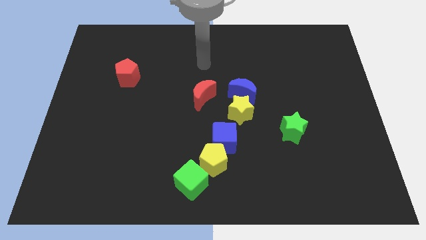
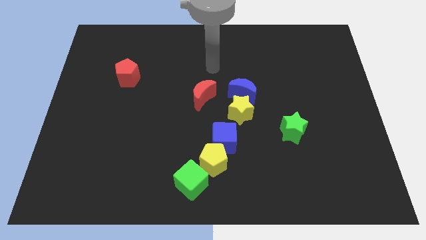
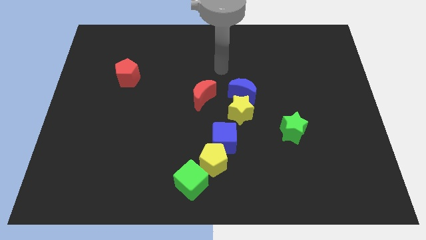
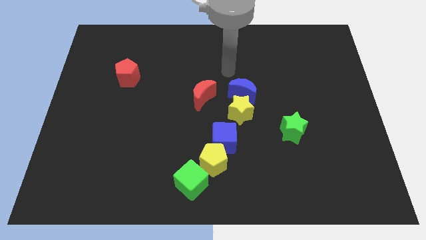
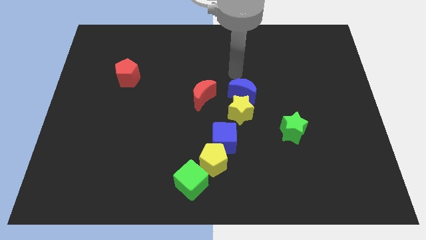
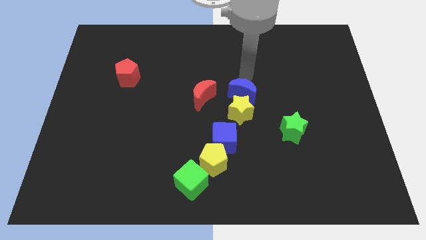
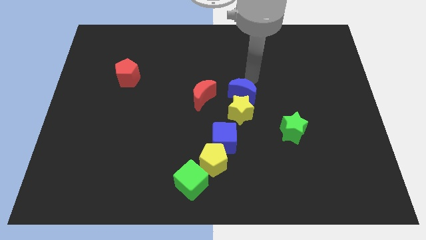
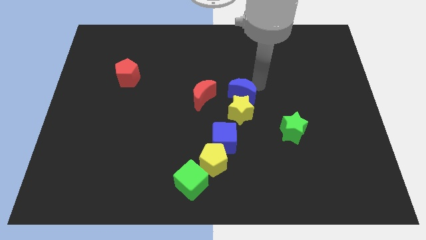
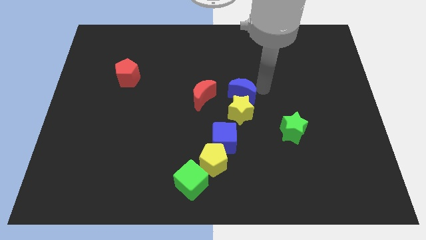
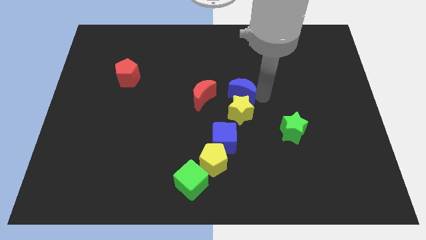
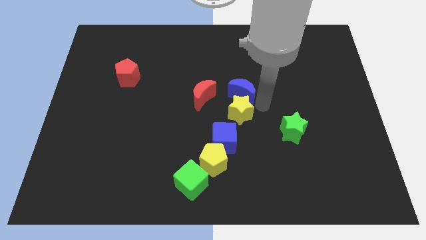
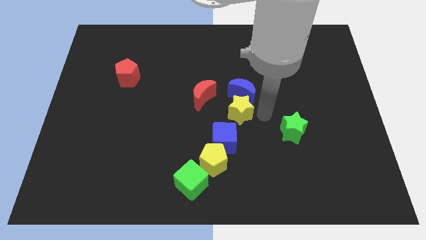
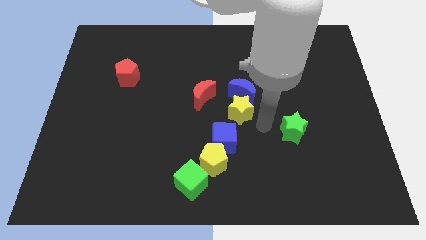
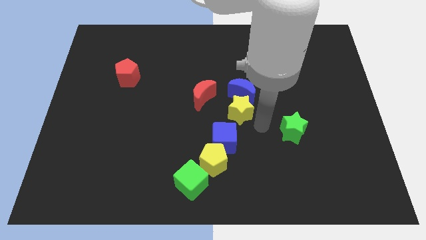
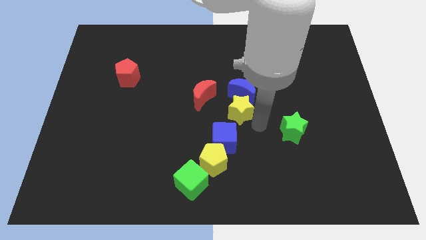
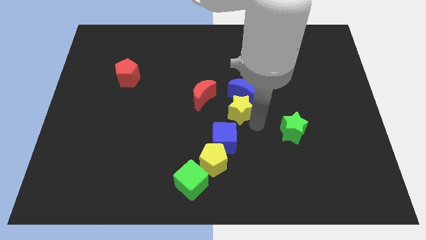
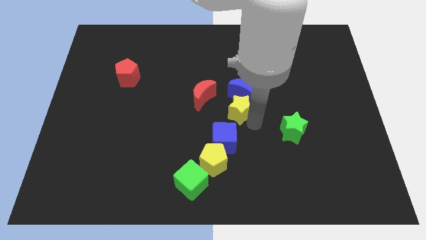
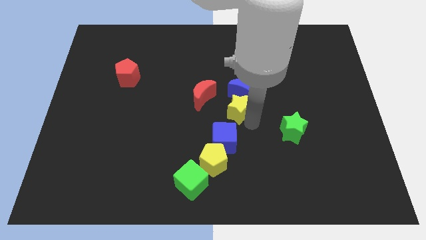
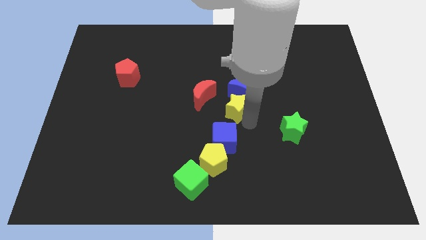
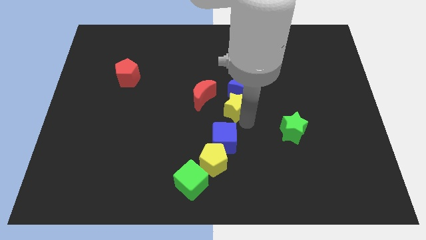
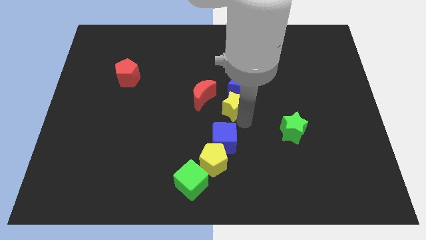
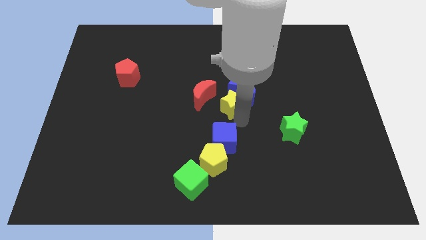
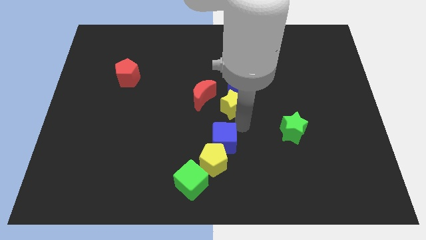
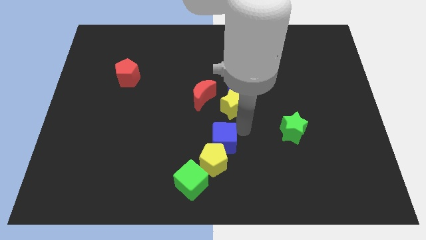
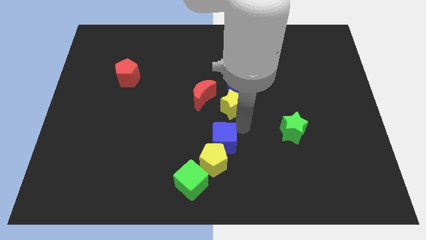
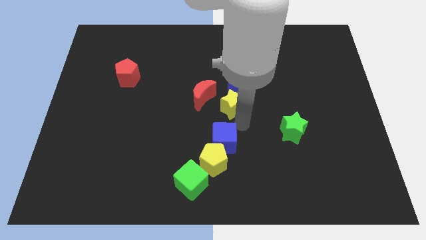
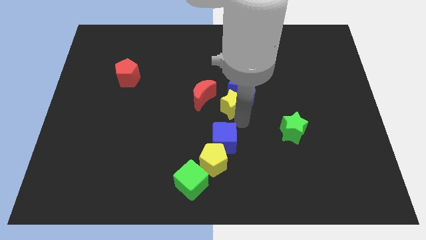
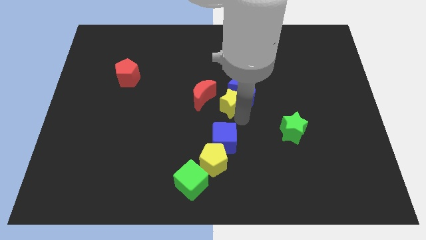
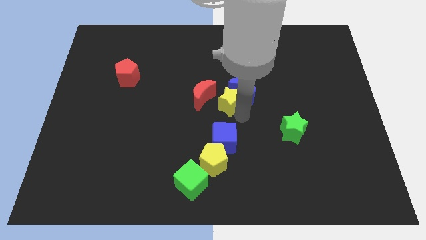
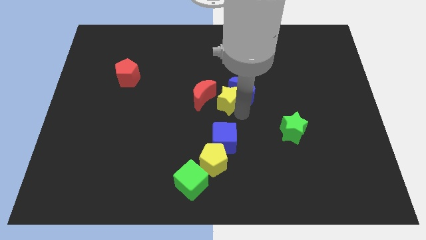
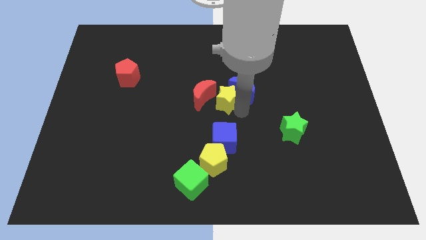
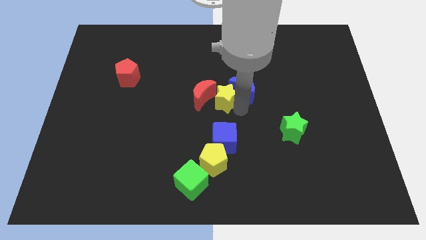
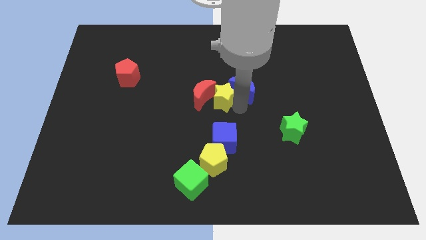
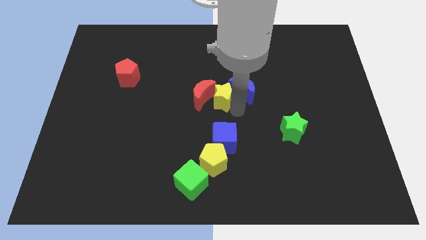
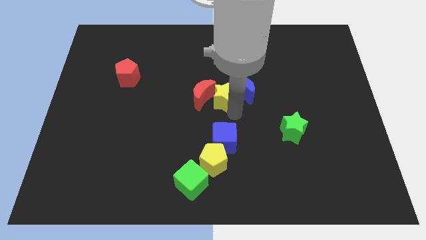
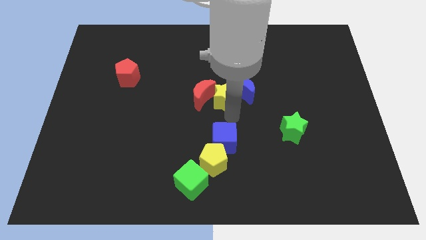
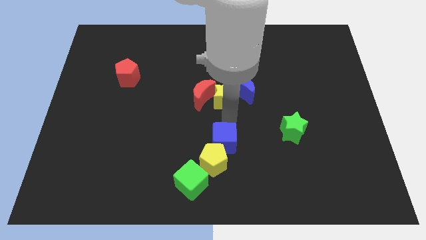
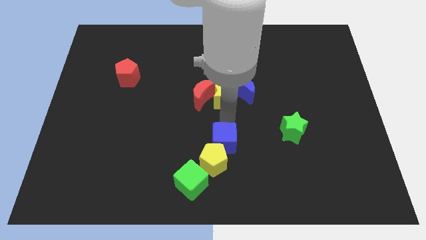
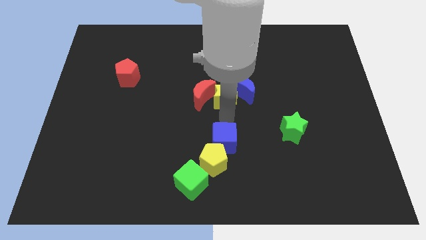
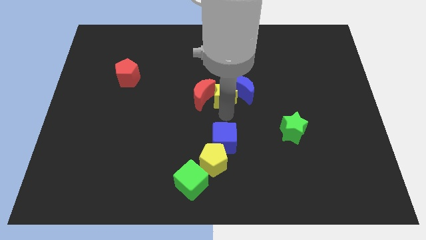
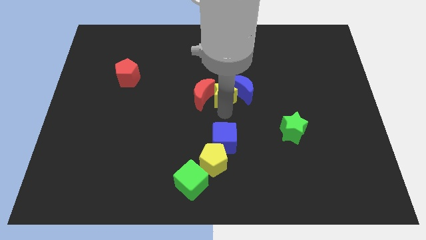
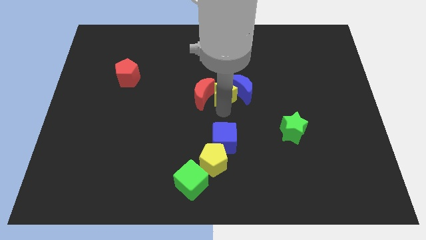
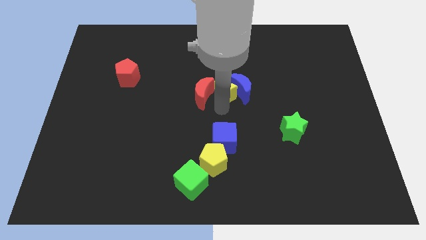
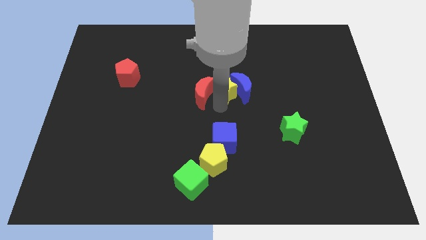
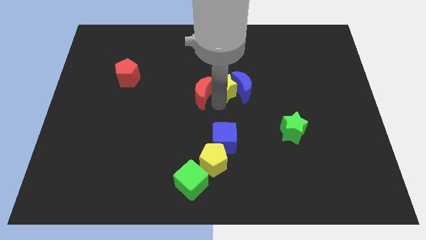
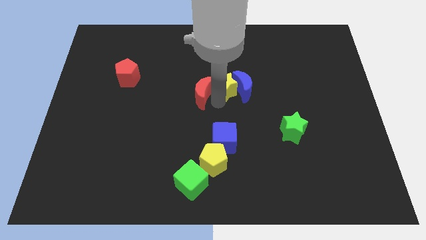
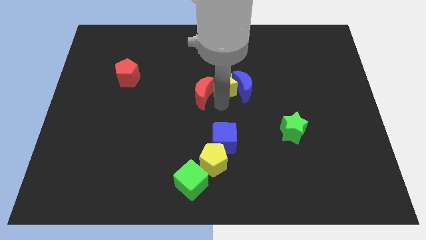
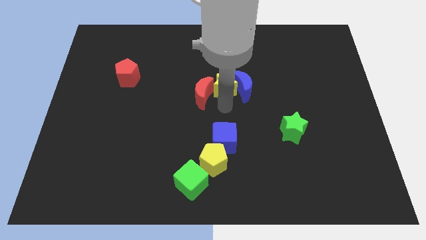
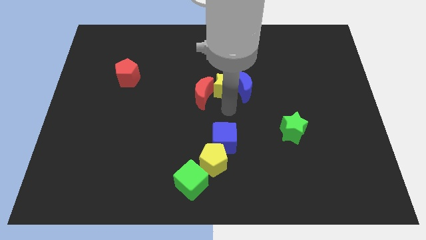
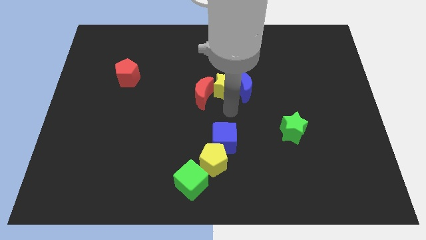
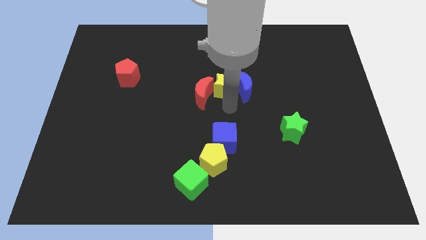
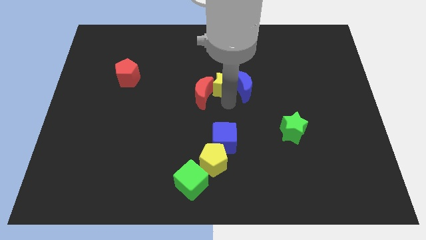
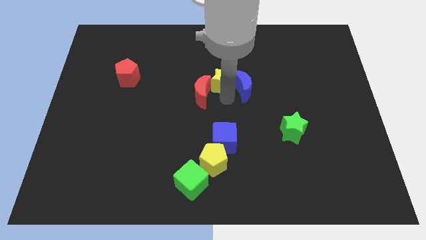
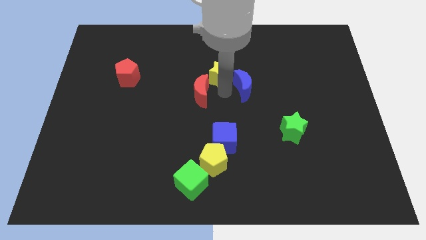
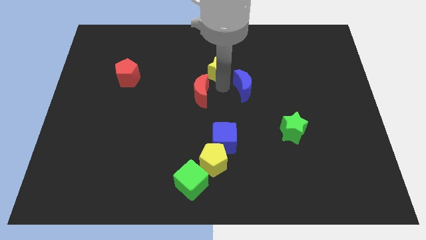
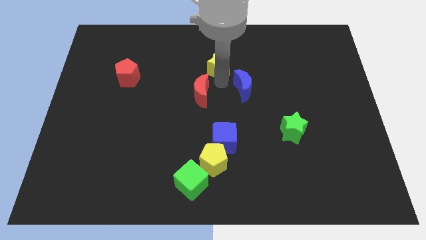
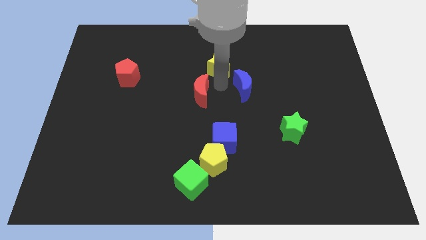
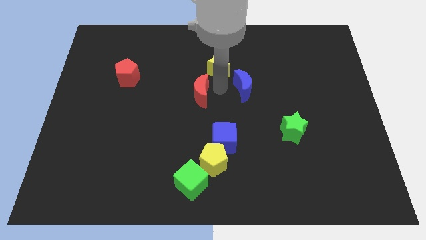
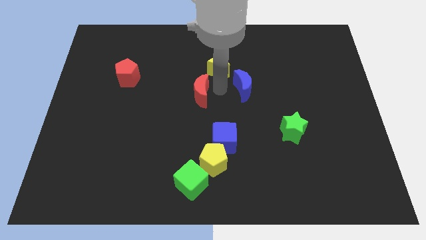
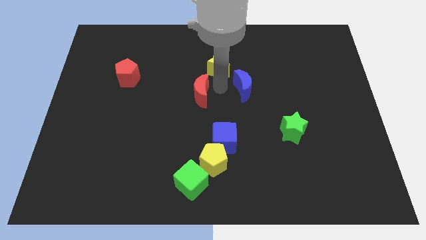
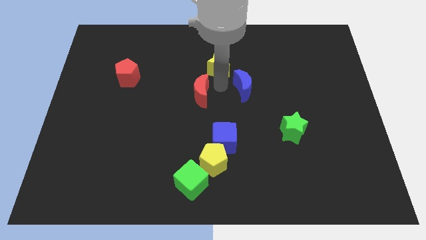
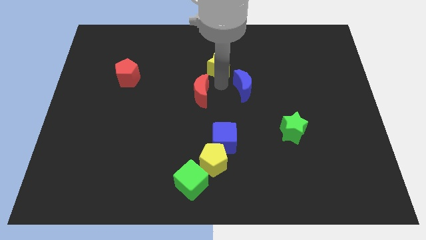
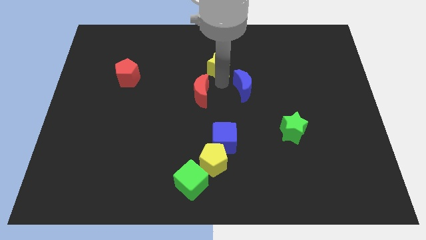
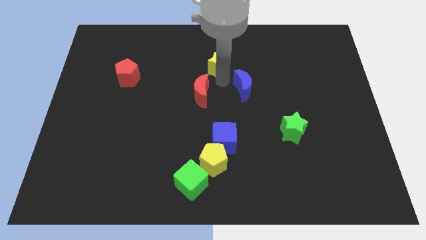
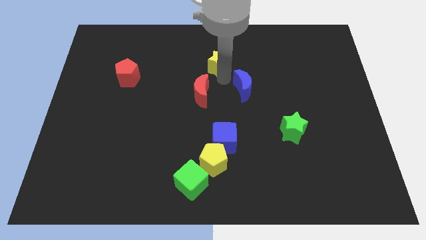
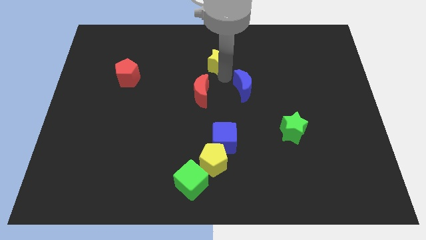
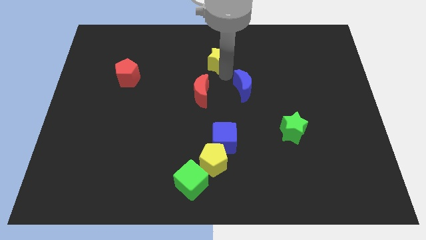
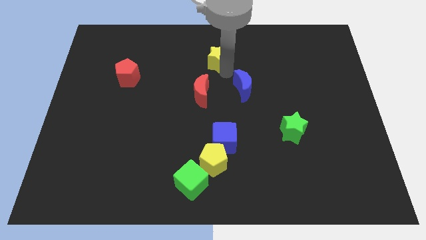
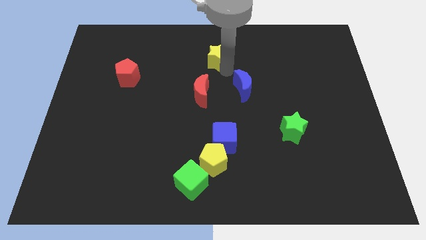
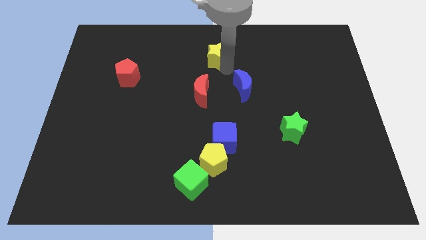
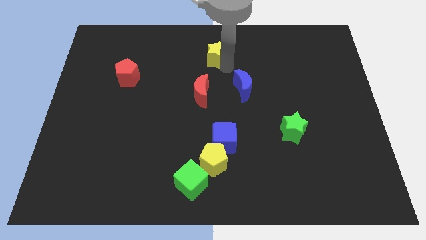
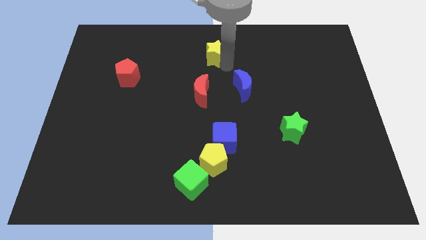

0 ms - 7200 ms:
move the yellow star to the towards your base
